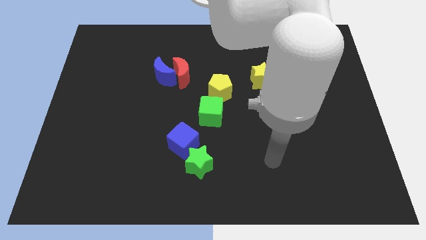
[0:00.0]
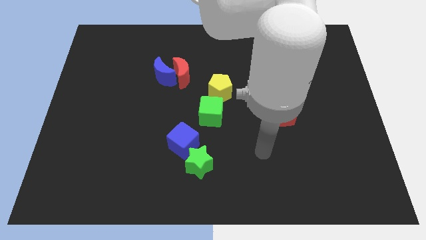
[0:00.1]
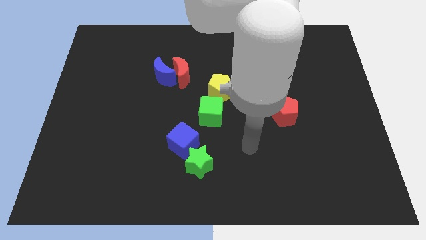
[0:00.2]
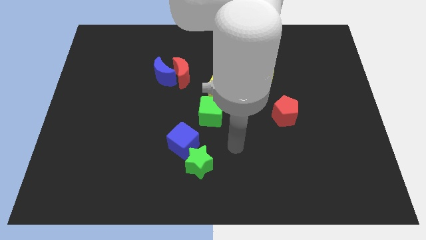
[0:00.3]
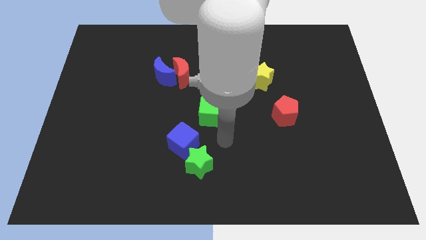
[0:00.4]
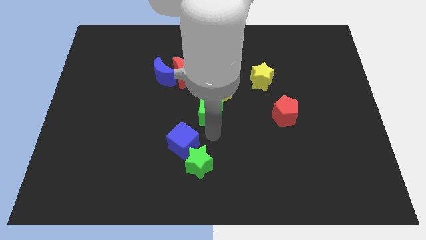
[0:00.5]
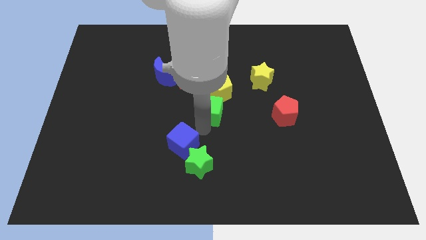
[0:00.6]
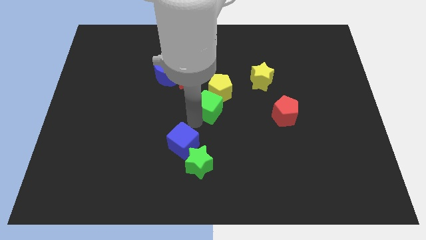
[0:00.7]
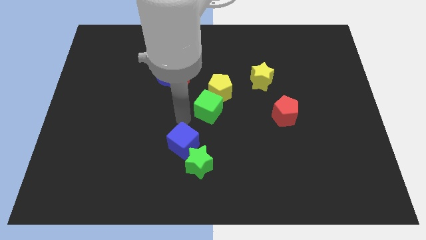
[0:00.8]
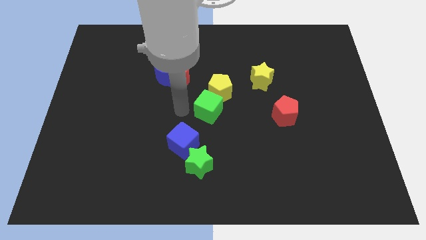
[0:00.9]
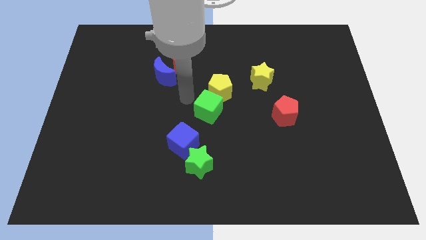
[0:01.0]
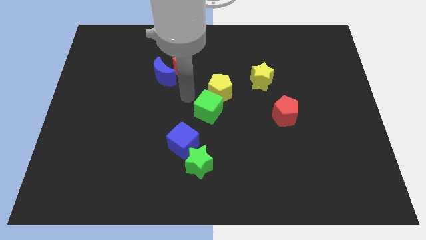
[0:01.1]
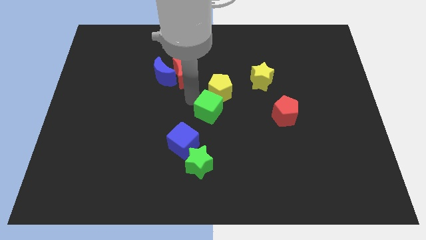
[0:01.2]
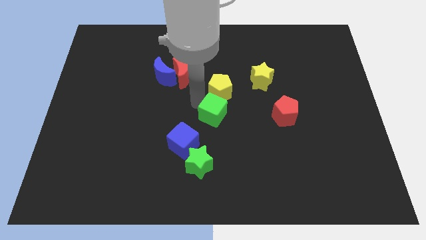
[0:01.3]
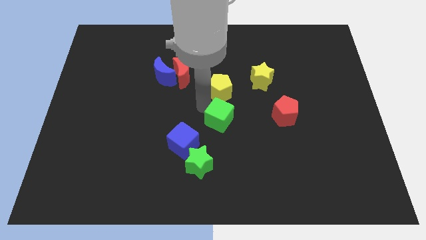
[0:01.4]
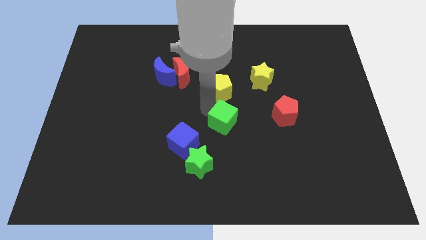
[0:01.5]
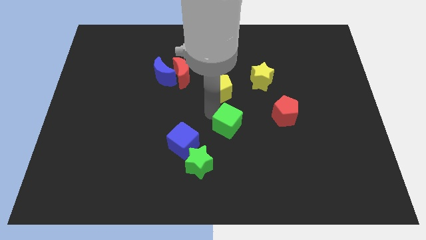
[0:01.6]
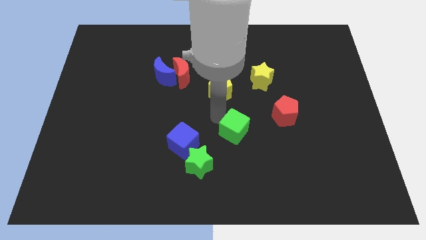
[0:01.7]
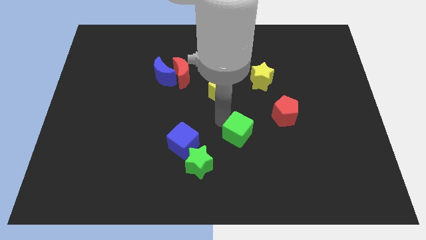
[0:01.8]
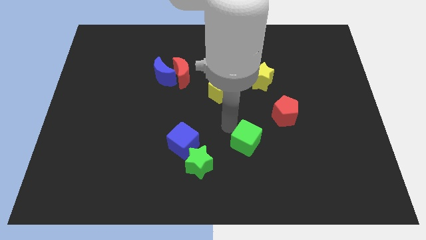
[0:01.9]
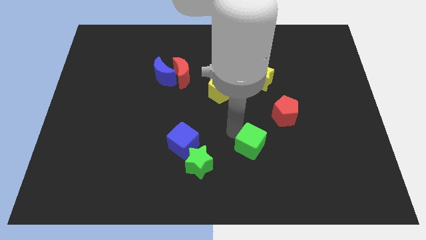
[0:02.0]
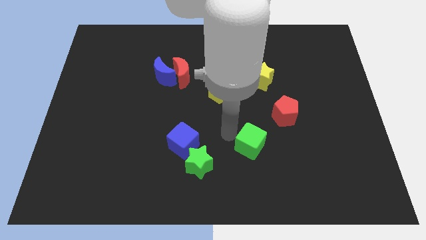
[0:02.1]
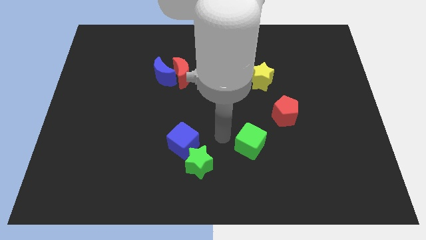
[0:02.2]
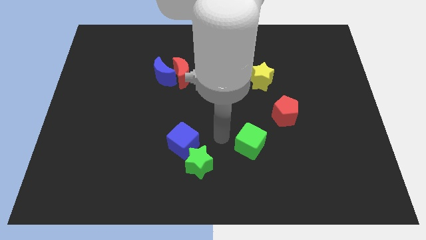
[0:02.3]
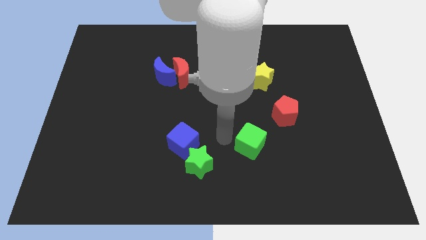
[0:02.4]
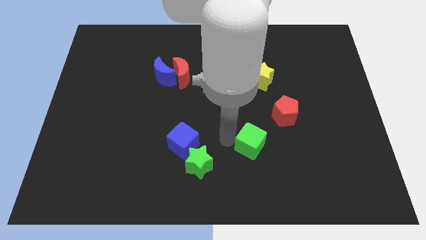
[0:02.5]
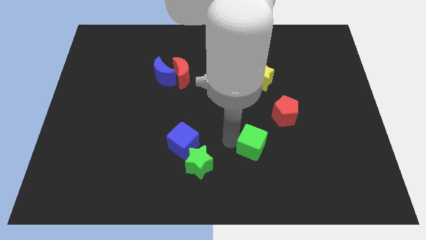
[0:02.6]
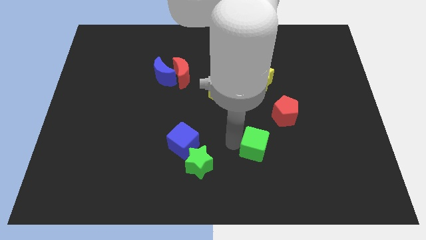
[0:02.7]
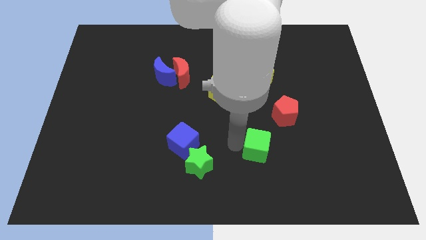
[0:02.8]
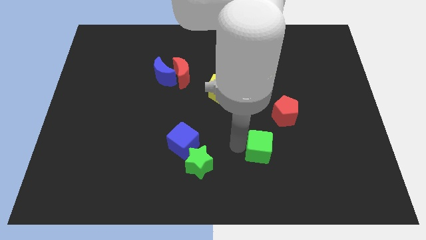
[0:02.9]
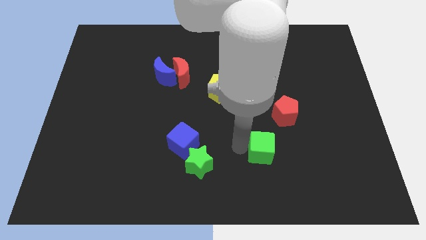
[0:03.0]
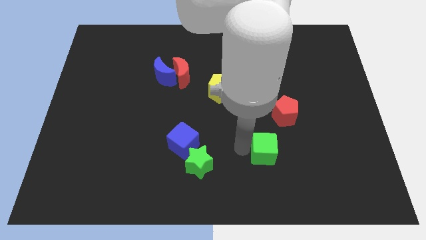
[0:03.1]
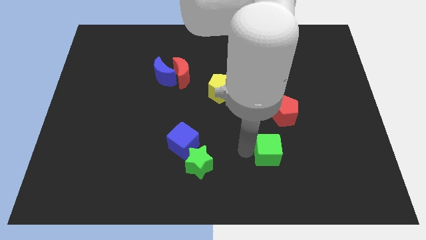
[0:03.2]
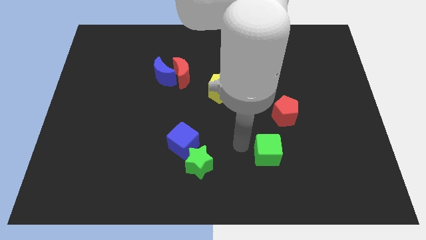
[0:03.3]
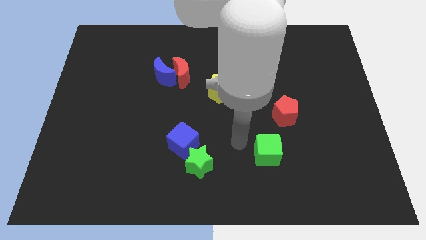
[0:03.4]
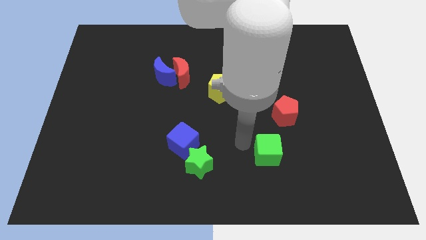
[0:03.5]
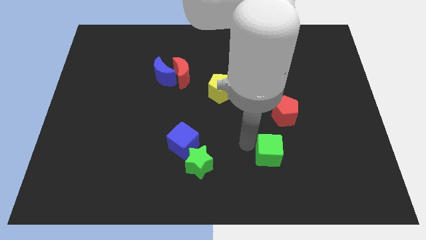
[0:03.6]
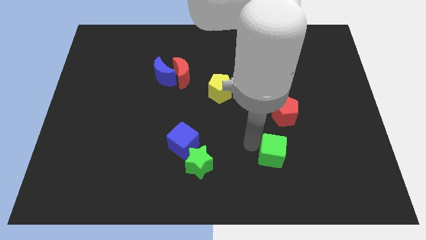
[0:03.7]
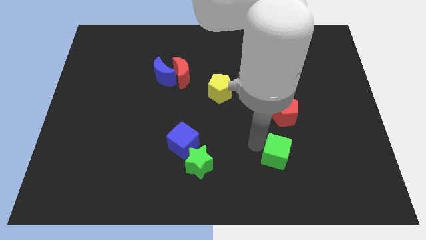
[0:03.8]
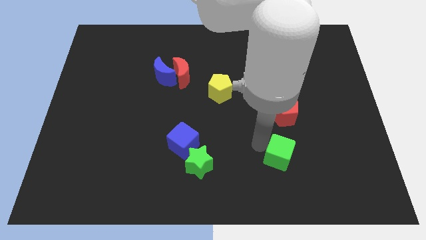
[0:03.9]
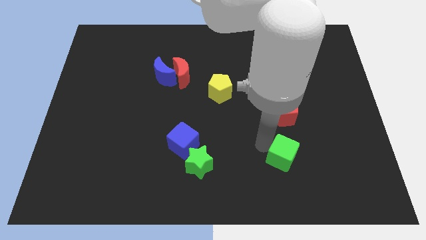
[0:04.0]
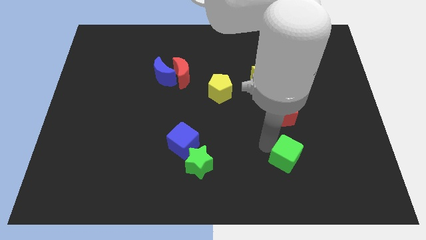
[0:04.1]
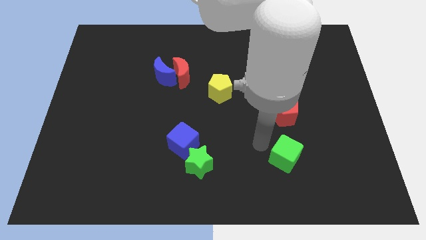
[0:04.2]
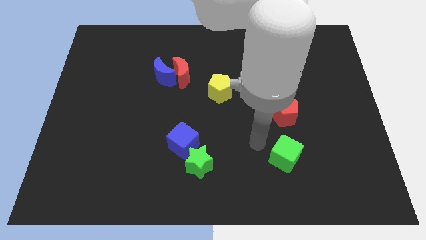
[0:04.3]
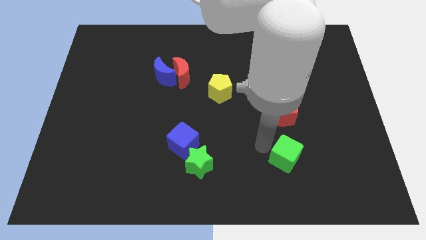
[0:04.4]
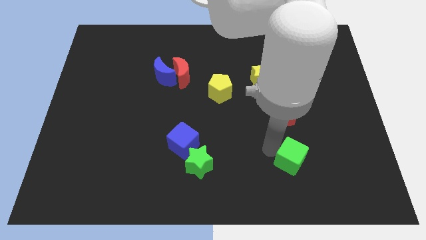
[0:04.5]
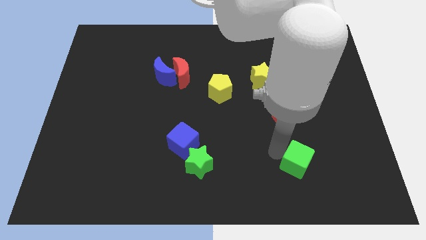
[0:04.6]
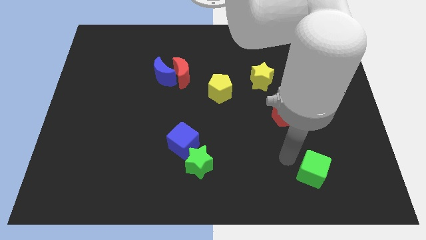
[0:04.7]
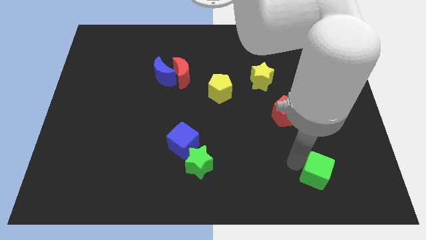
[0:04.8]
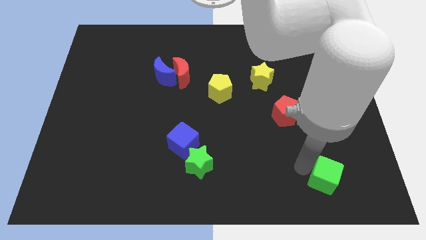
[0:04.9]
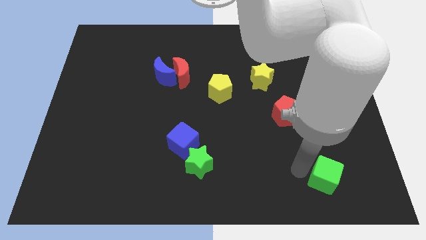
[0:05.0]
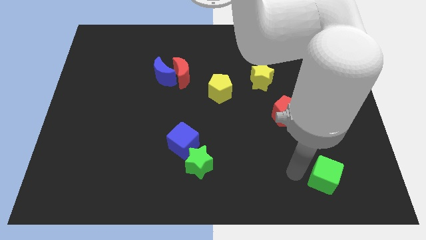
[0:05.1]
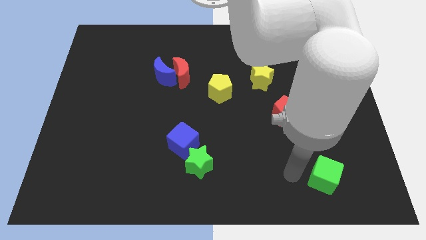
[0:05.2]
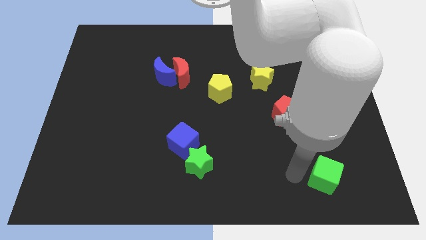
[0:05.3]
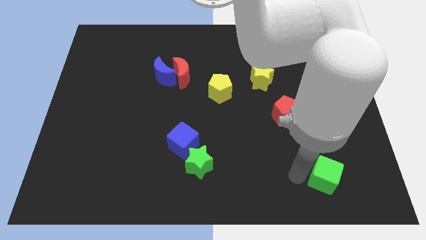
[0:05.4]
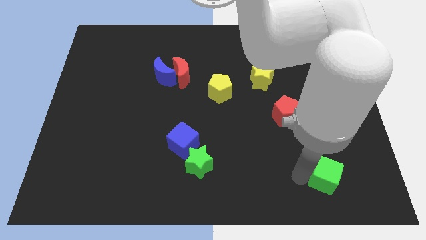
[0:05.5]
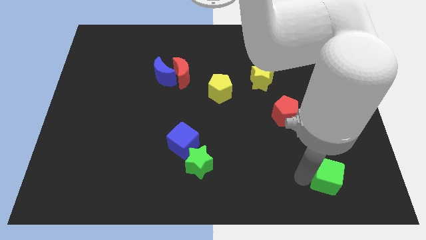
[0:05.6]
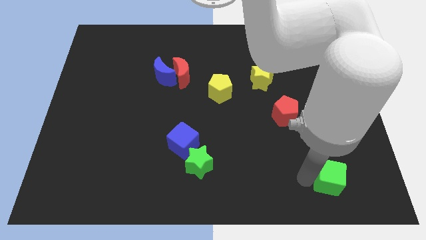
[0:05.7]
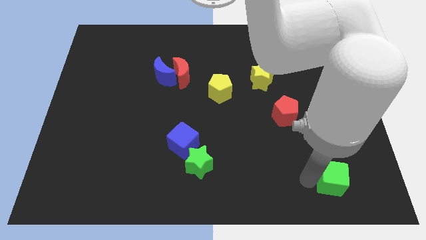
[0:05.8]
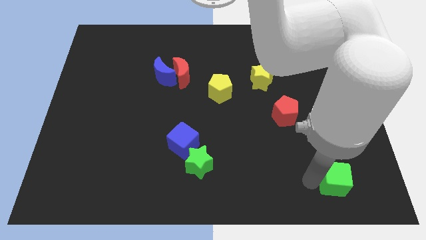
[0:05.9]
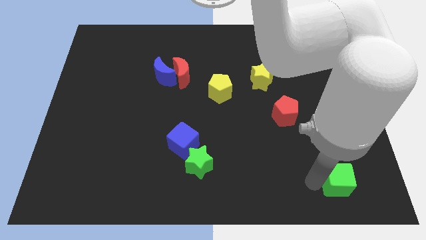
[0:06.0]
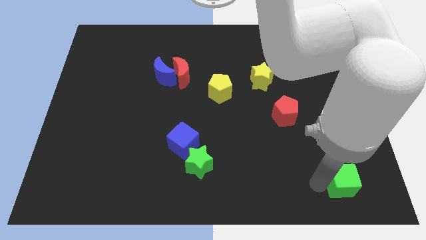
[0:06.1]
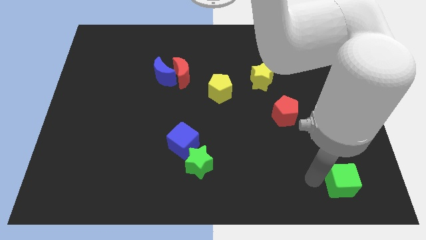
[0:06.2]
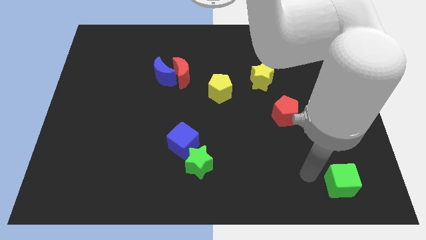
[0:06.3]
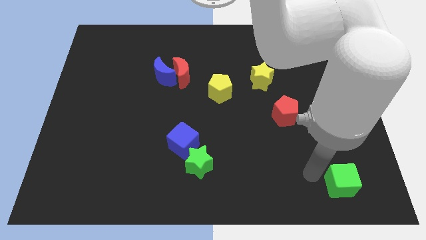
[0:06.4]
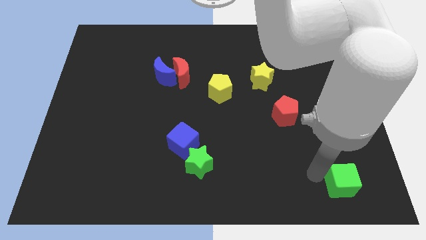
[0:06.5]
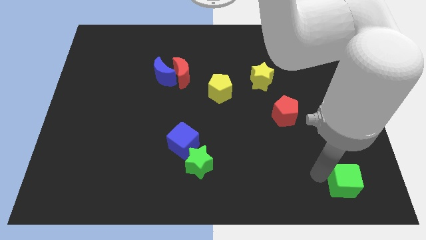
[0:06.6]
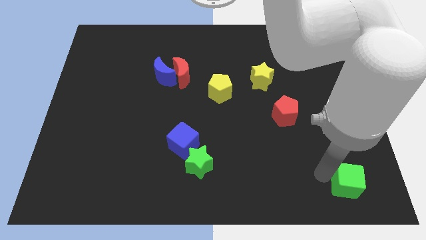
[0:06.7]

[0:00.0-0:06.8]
slide the green cube to the lower right corner

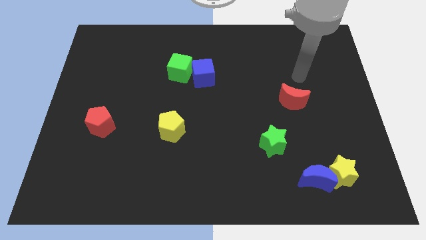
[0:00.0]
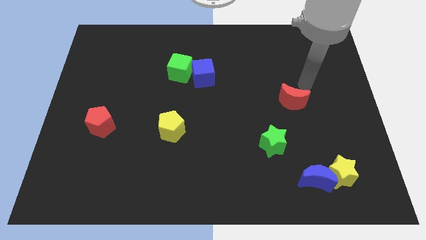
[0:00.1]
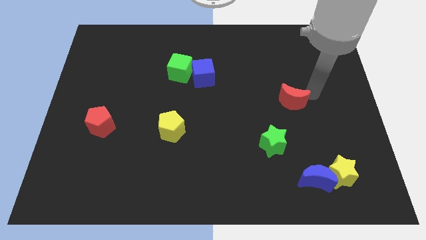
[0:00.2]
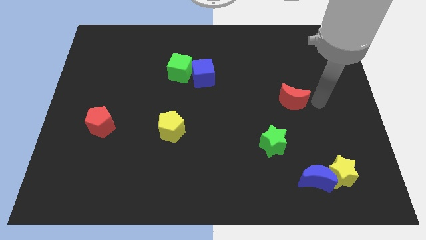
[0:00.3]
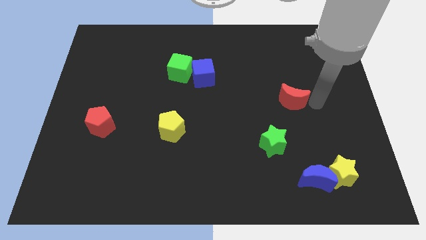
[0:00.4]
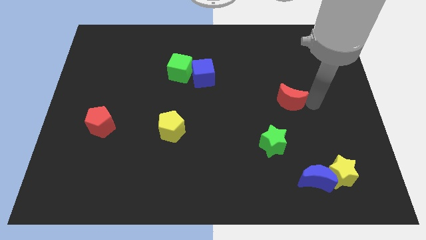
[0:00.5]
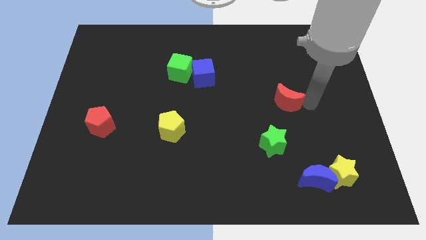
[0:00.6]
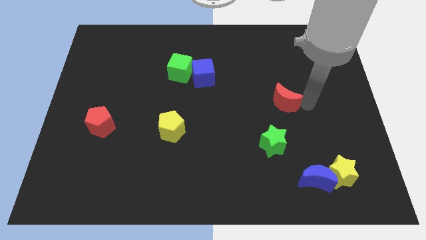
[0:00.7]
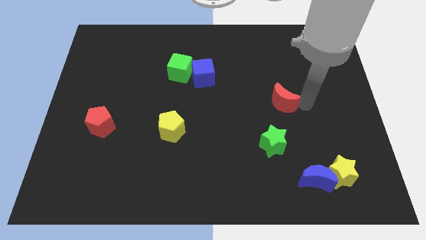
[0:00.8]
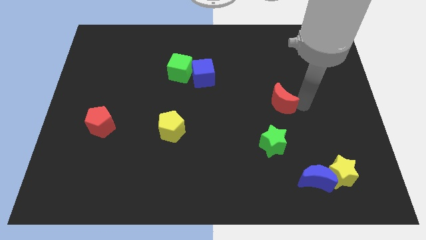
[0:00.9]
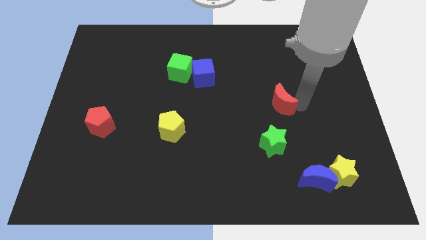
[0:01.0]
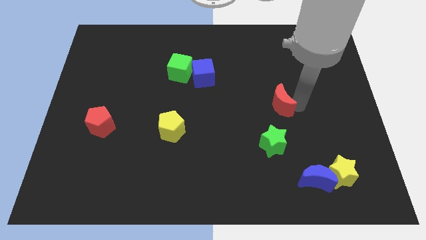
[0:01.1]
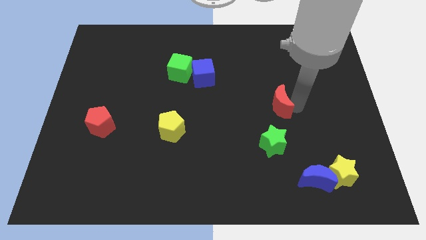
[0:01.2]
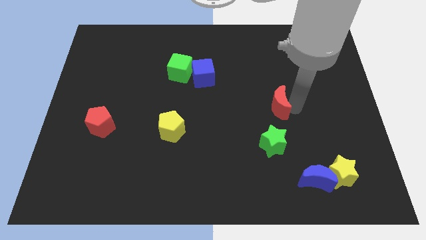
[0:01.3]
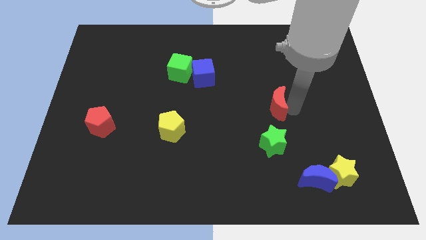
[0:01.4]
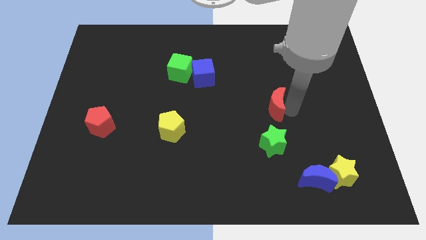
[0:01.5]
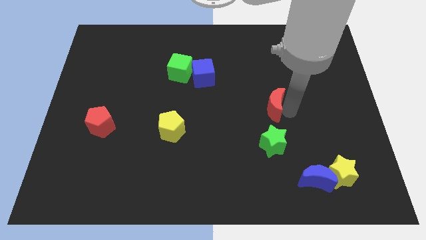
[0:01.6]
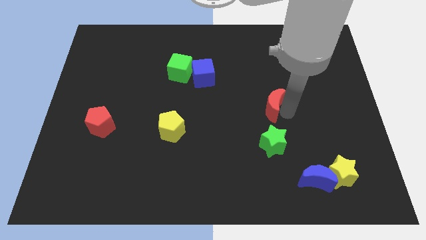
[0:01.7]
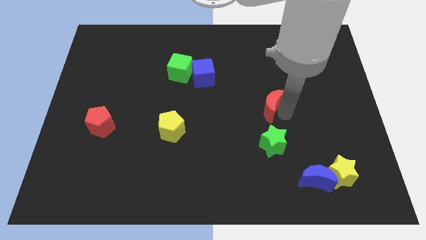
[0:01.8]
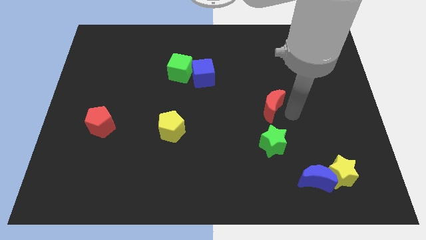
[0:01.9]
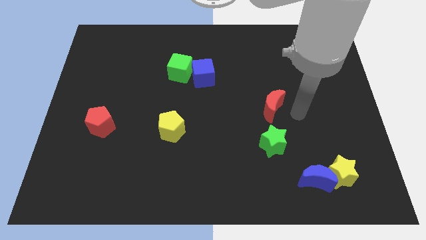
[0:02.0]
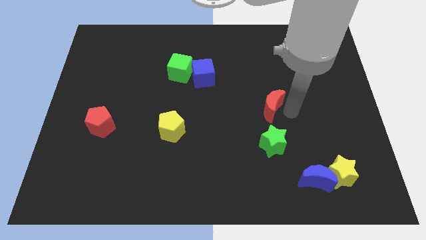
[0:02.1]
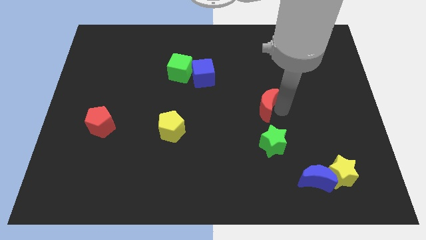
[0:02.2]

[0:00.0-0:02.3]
move the red moon to the center of the board
